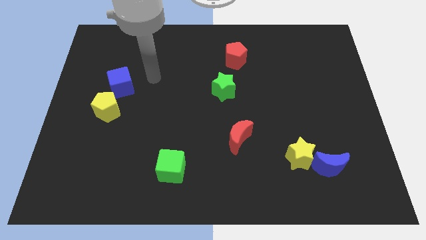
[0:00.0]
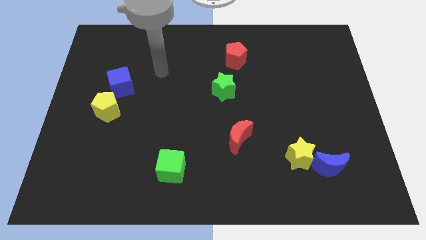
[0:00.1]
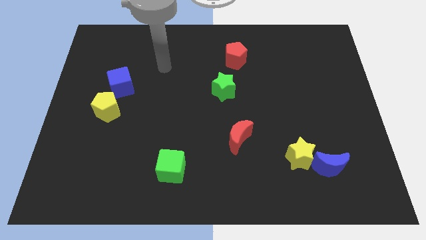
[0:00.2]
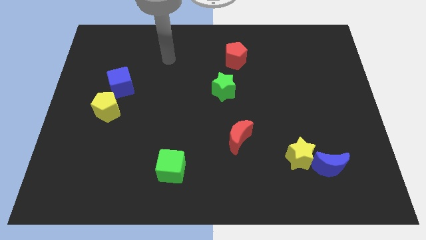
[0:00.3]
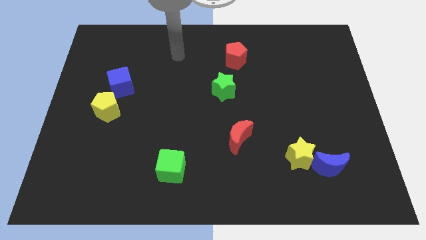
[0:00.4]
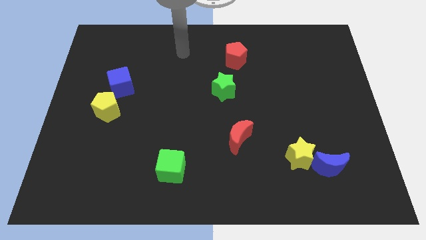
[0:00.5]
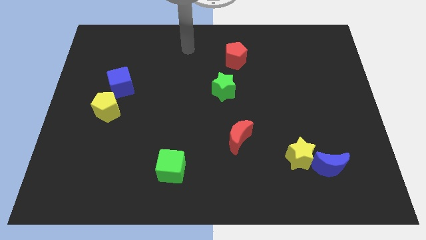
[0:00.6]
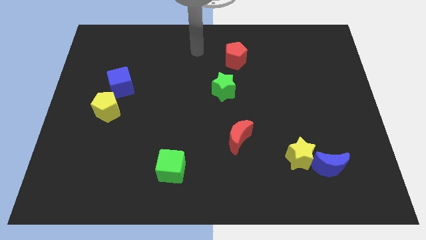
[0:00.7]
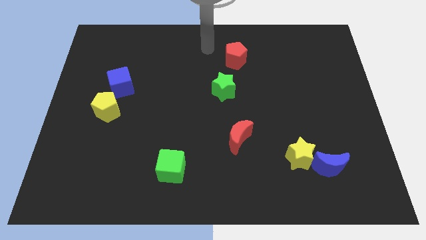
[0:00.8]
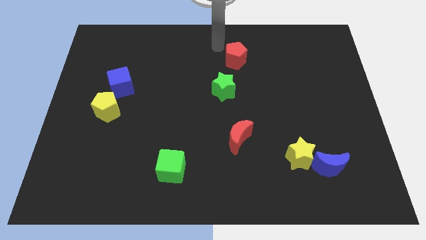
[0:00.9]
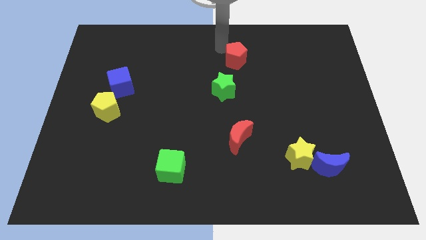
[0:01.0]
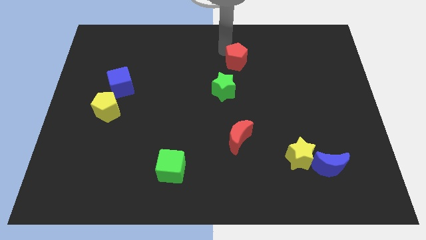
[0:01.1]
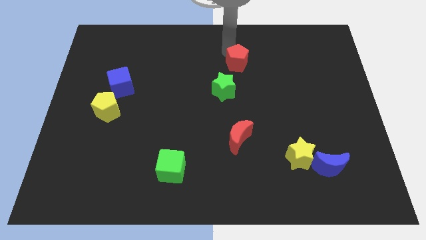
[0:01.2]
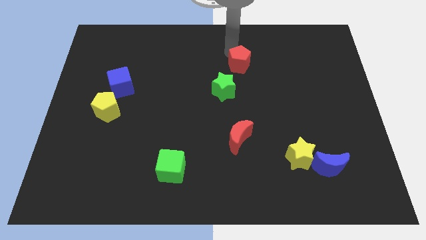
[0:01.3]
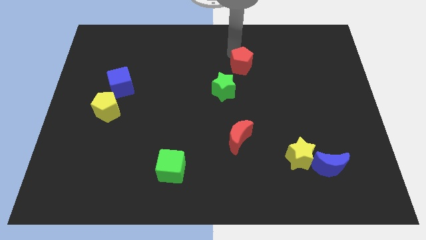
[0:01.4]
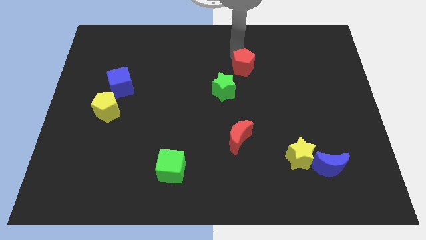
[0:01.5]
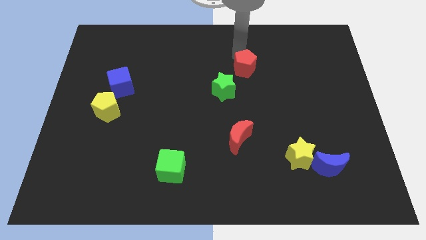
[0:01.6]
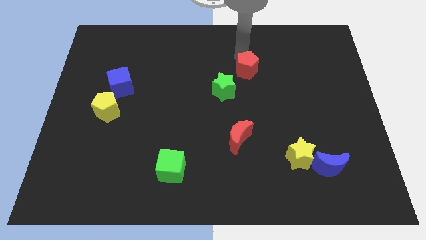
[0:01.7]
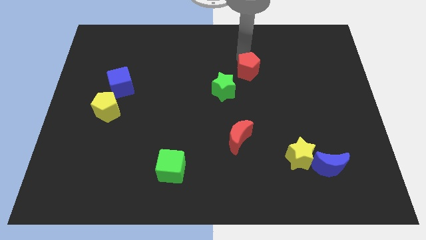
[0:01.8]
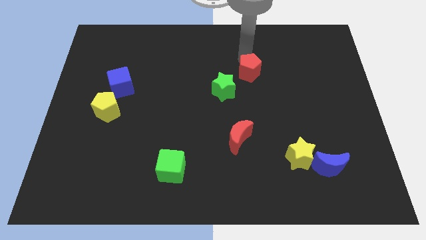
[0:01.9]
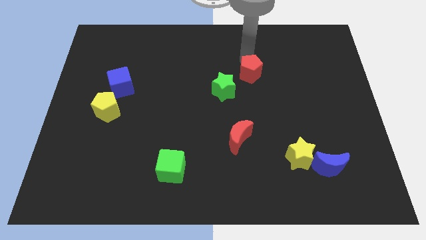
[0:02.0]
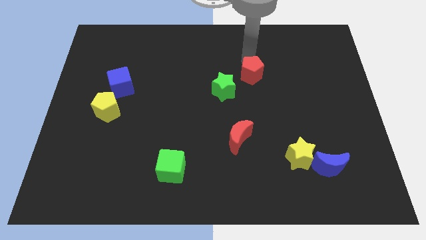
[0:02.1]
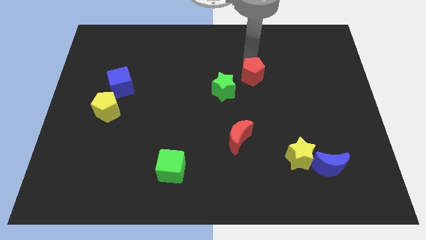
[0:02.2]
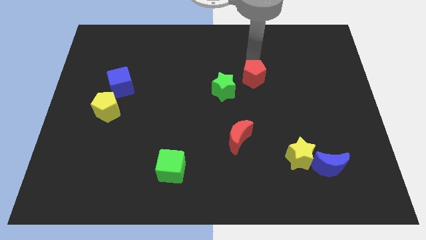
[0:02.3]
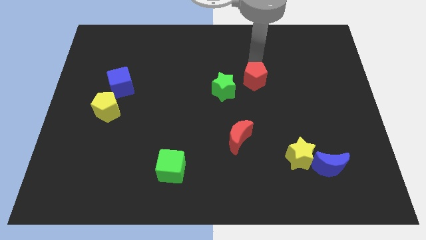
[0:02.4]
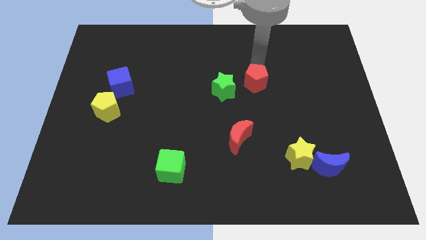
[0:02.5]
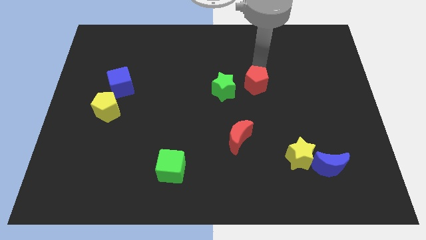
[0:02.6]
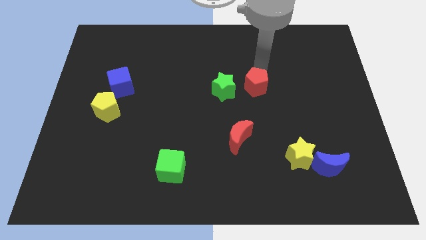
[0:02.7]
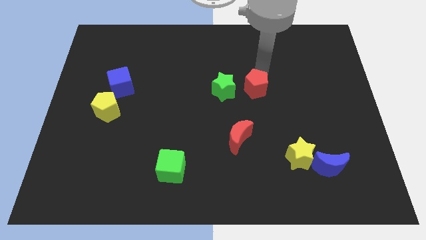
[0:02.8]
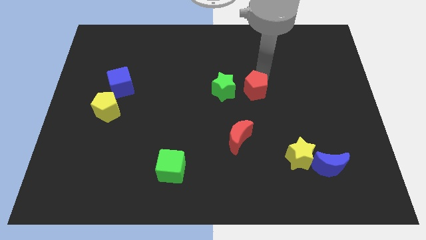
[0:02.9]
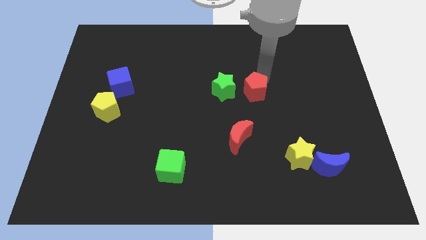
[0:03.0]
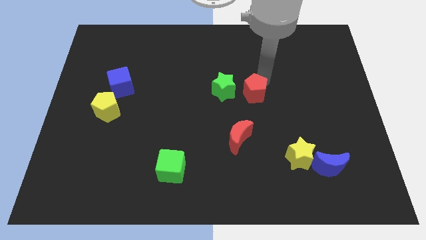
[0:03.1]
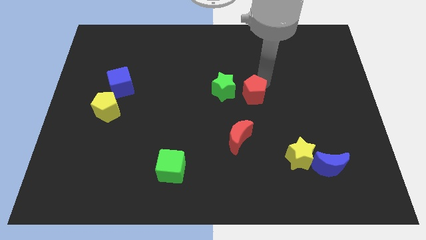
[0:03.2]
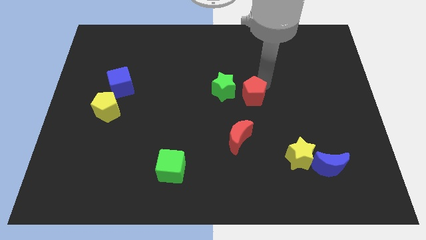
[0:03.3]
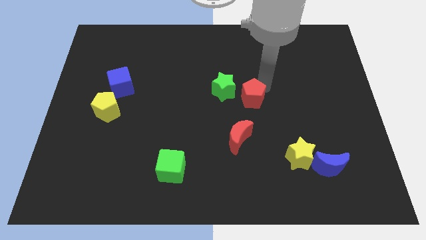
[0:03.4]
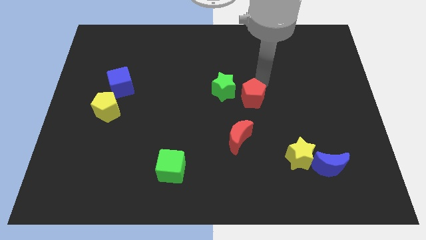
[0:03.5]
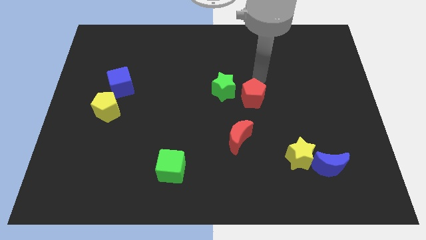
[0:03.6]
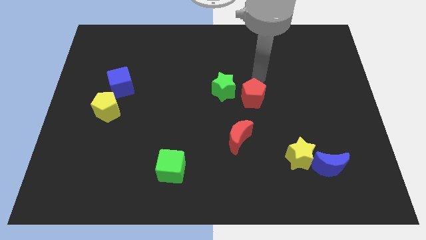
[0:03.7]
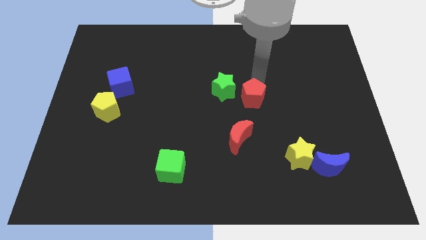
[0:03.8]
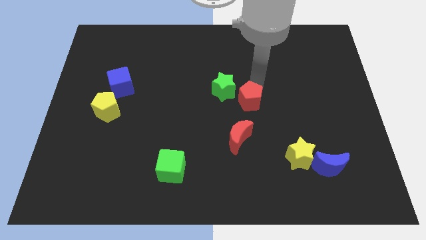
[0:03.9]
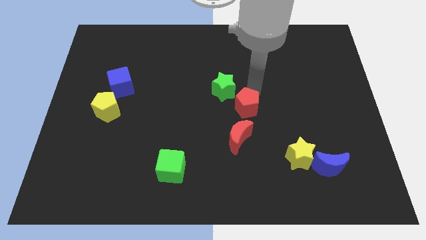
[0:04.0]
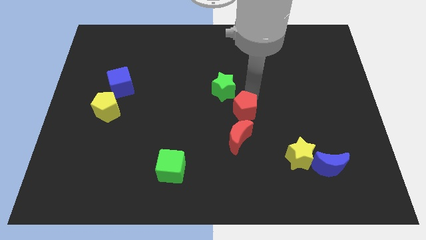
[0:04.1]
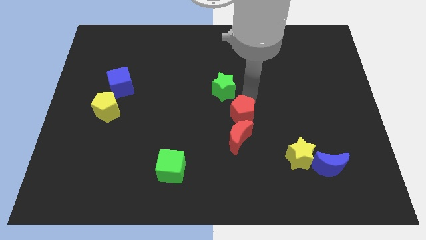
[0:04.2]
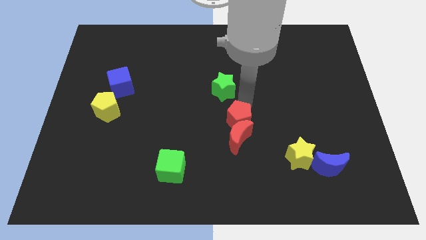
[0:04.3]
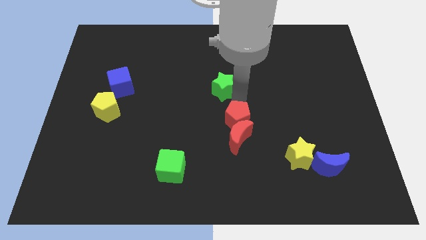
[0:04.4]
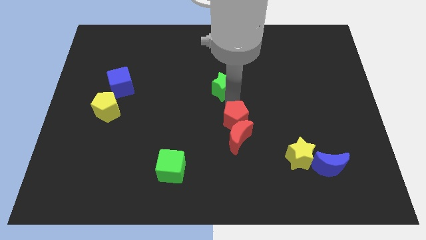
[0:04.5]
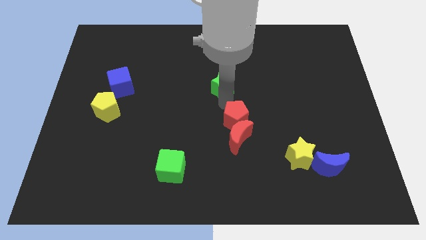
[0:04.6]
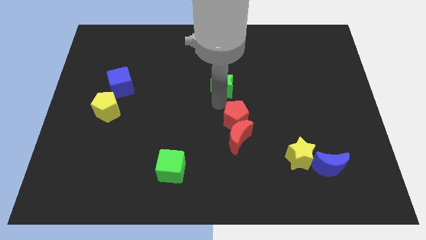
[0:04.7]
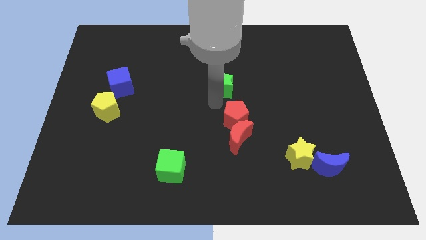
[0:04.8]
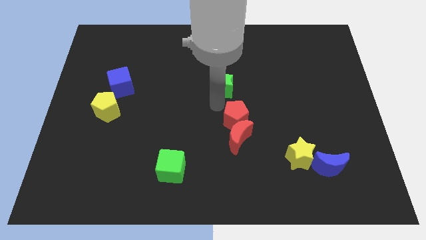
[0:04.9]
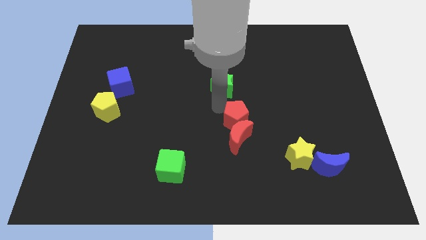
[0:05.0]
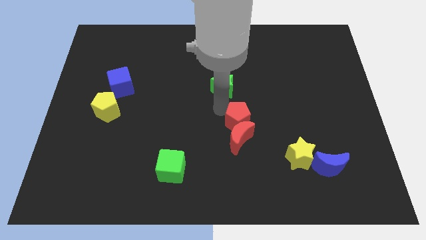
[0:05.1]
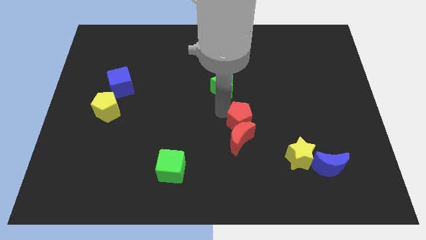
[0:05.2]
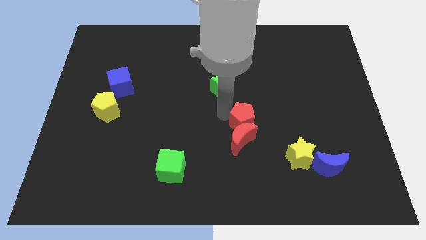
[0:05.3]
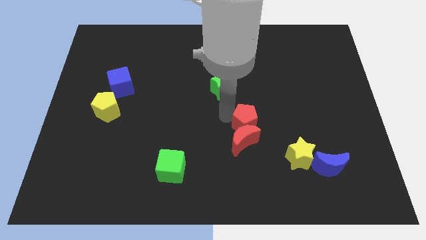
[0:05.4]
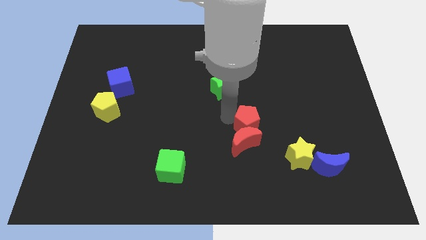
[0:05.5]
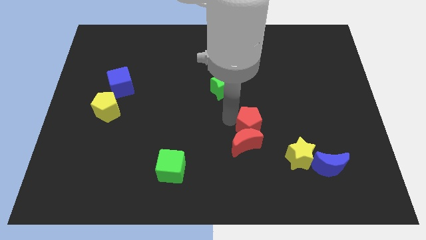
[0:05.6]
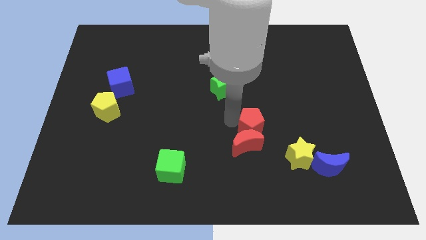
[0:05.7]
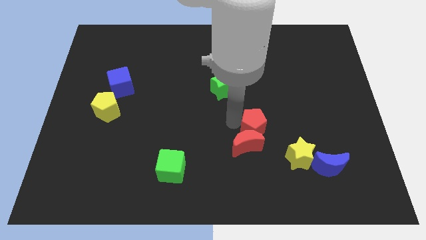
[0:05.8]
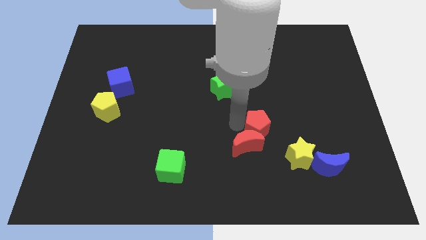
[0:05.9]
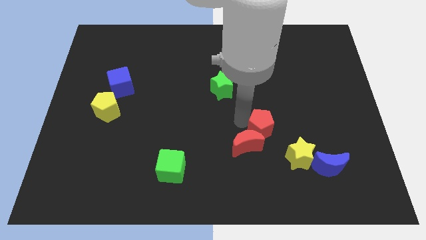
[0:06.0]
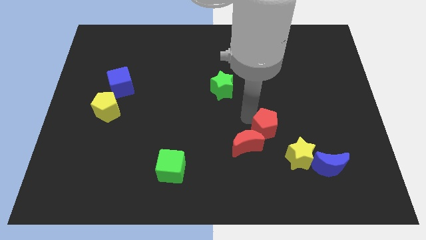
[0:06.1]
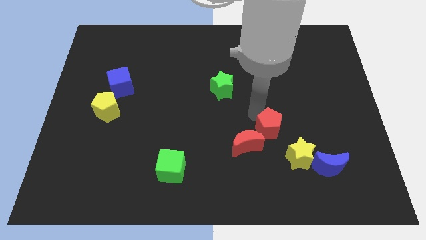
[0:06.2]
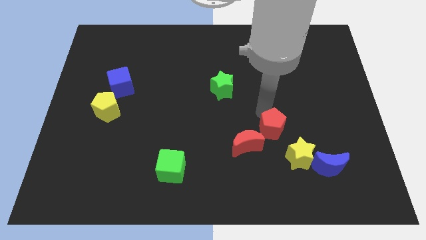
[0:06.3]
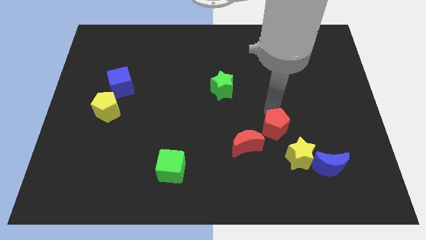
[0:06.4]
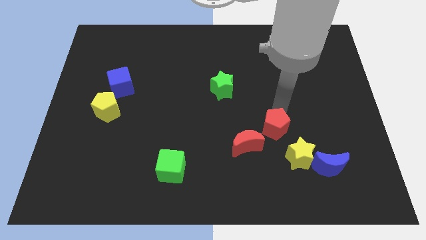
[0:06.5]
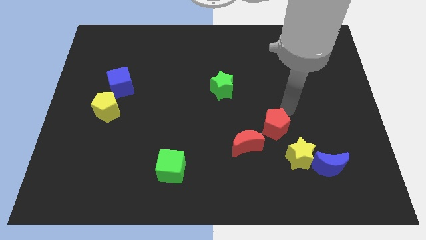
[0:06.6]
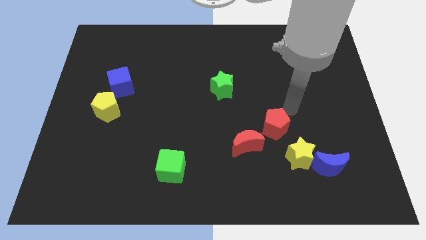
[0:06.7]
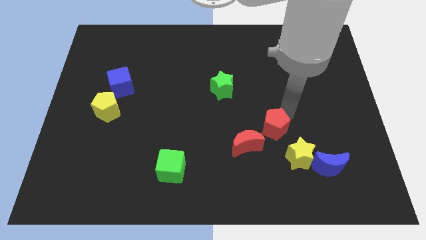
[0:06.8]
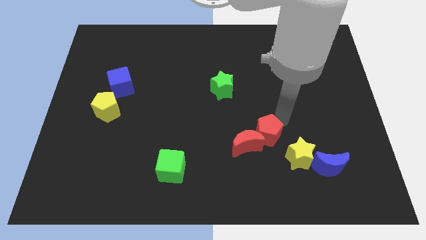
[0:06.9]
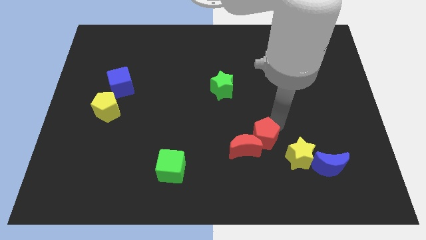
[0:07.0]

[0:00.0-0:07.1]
push the red pentagon just left of the yellow star
